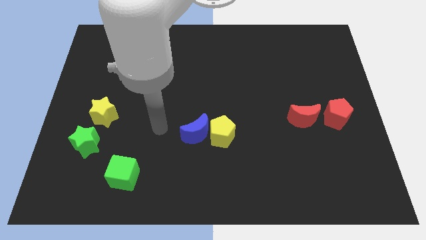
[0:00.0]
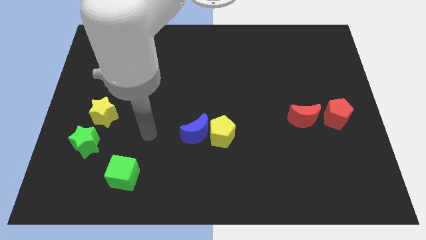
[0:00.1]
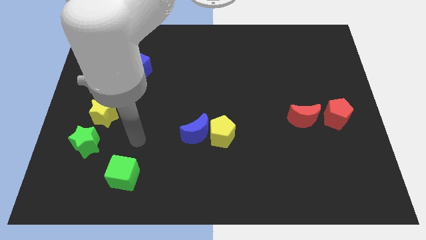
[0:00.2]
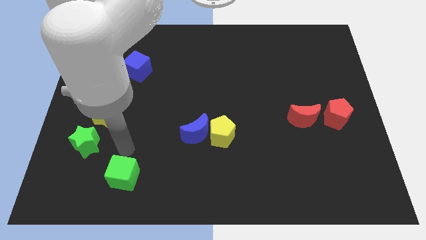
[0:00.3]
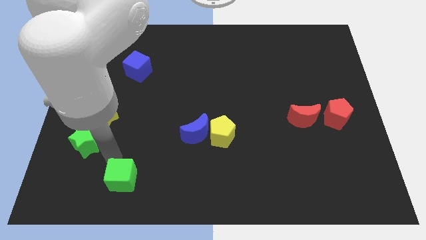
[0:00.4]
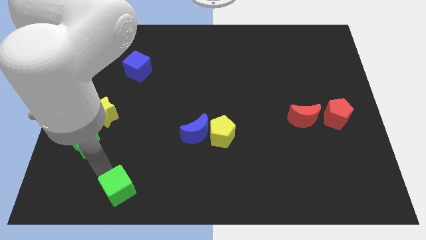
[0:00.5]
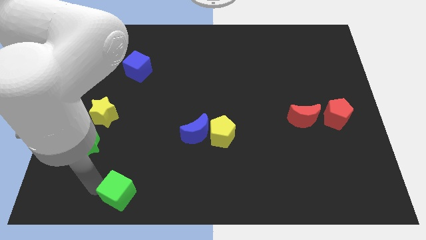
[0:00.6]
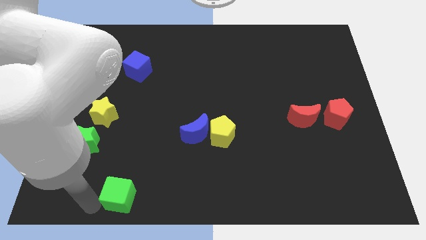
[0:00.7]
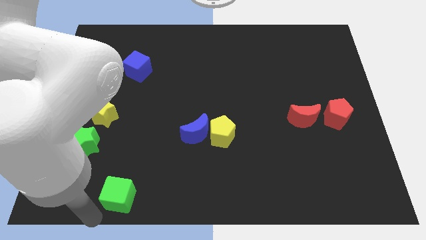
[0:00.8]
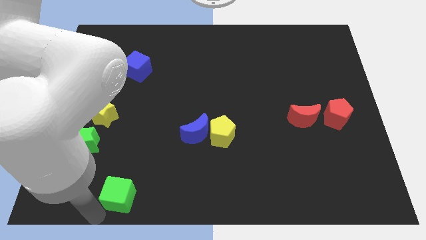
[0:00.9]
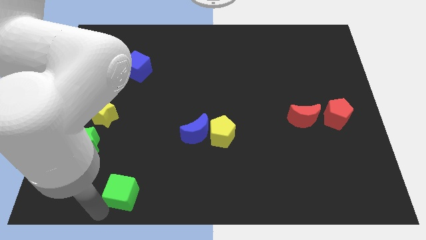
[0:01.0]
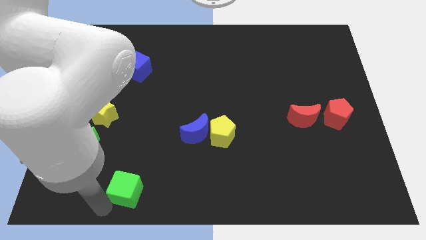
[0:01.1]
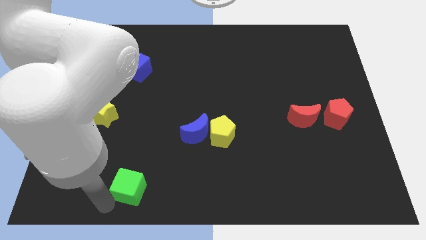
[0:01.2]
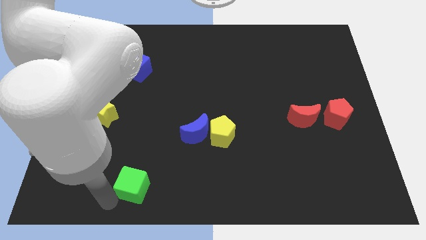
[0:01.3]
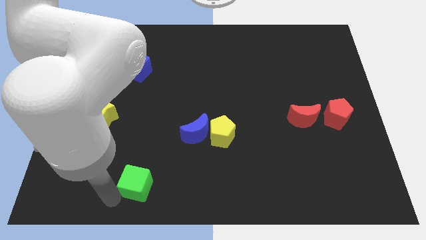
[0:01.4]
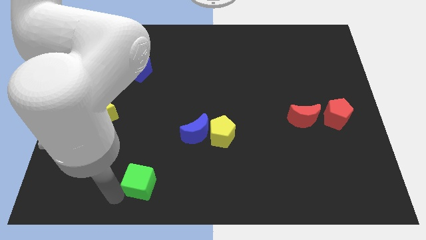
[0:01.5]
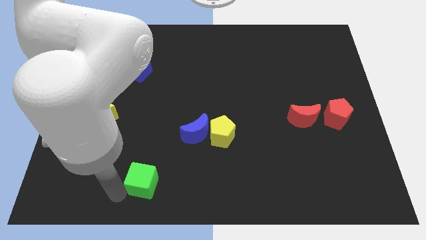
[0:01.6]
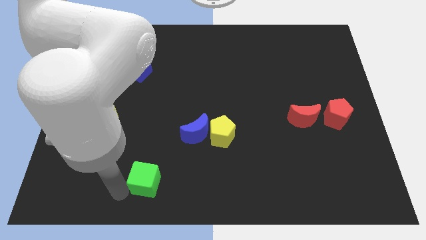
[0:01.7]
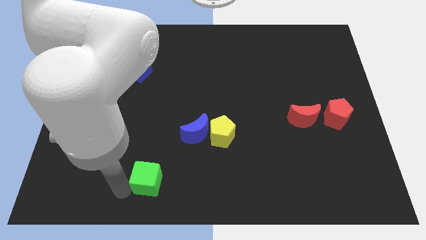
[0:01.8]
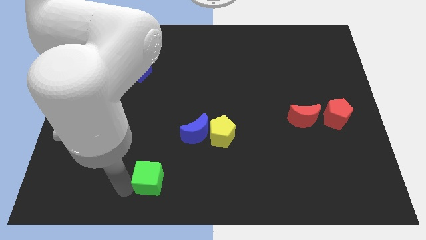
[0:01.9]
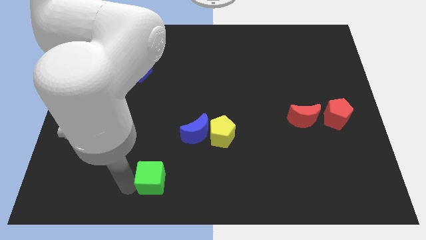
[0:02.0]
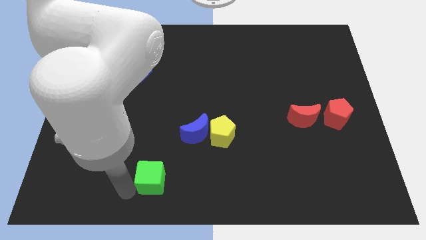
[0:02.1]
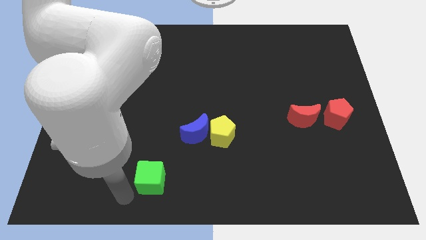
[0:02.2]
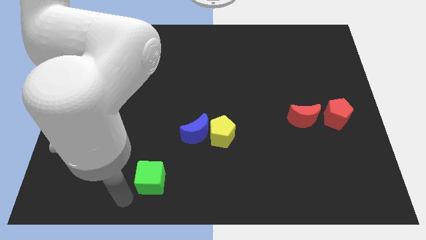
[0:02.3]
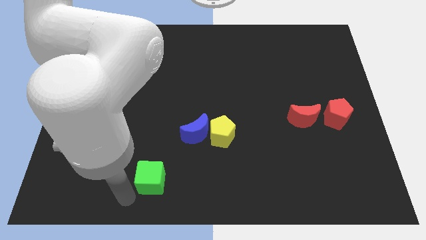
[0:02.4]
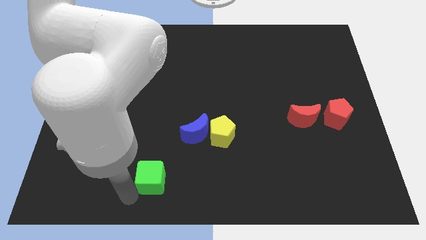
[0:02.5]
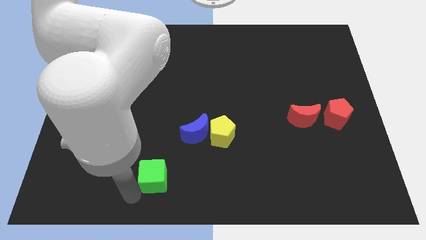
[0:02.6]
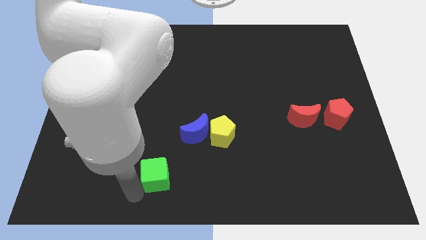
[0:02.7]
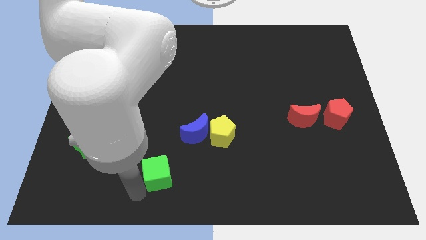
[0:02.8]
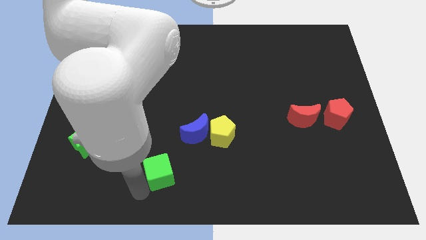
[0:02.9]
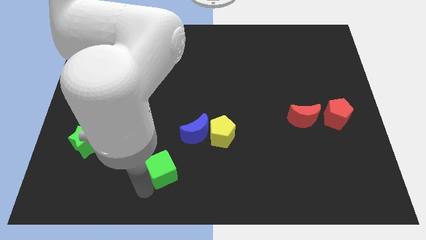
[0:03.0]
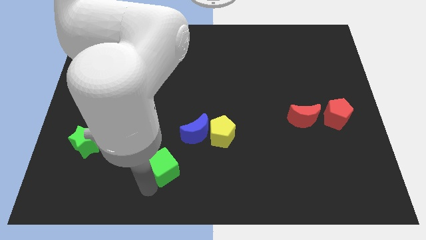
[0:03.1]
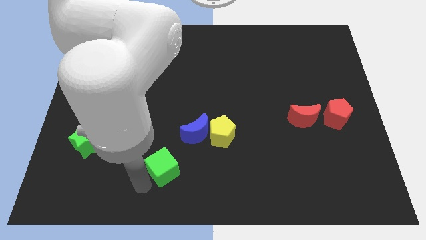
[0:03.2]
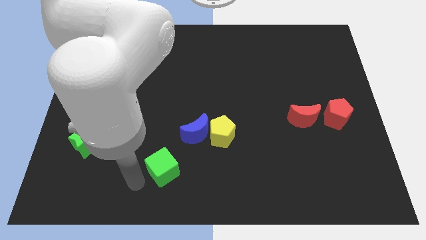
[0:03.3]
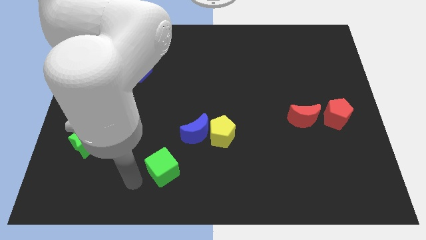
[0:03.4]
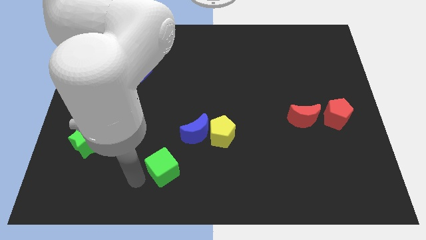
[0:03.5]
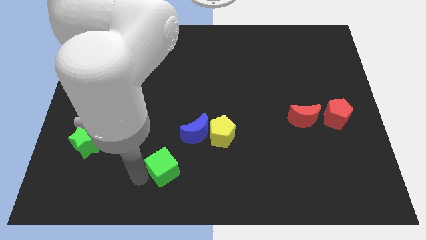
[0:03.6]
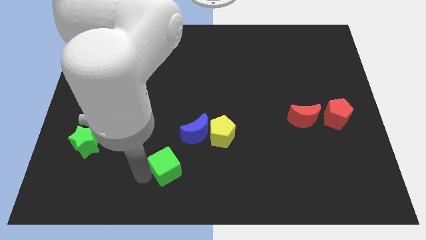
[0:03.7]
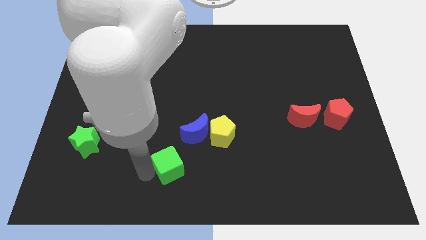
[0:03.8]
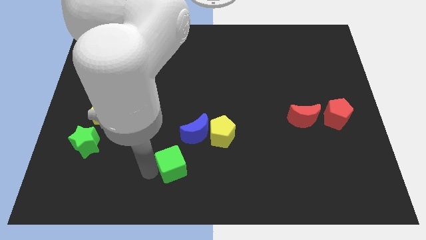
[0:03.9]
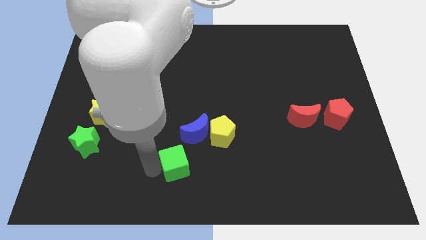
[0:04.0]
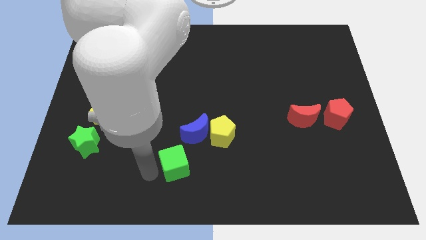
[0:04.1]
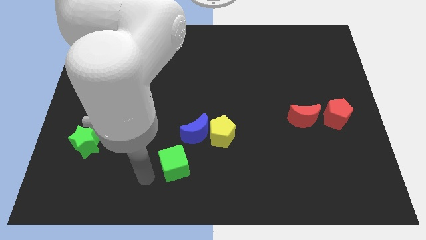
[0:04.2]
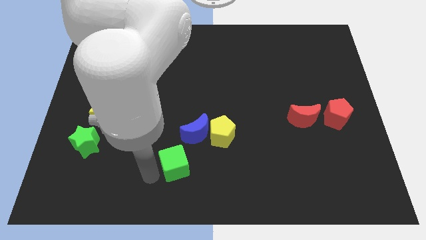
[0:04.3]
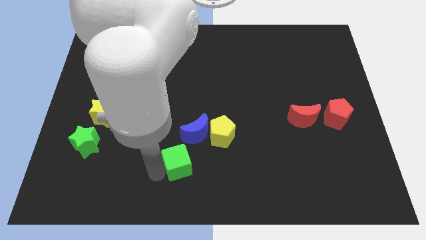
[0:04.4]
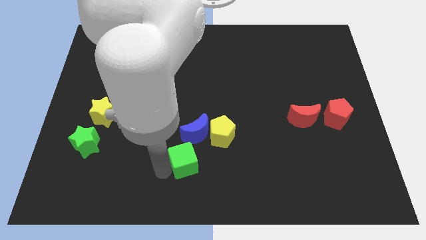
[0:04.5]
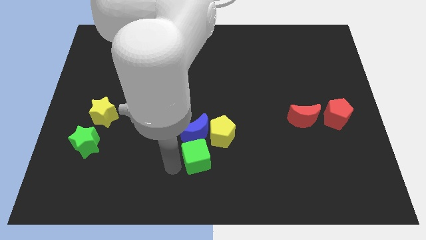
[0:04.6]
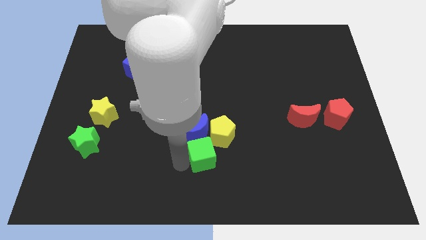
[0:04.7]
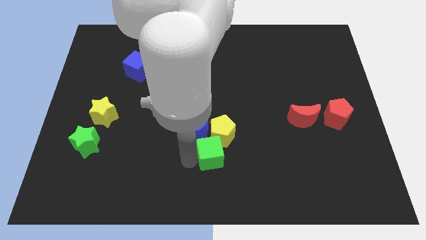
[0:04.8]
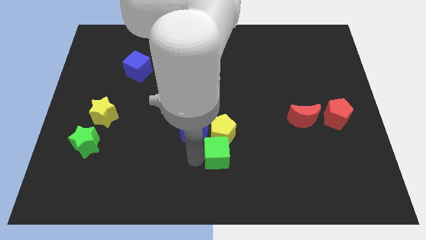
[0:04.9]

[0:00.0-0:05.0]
move the green cube to the bottom right of the yellow pentagon

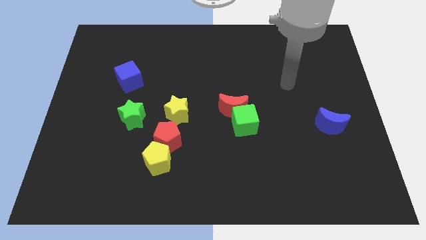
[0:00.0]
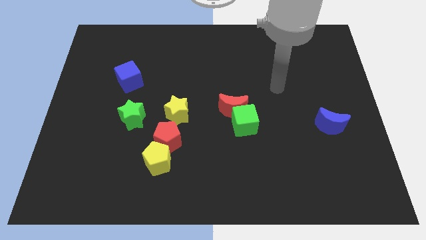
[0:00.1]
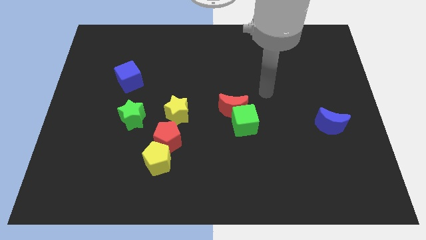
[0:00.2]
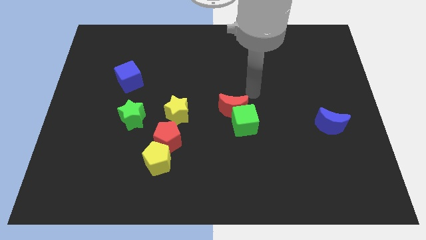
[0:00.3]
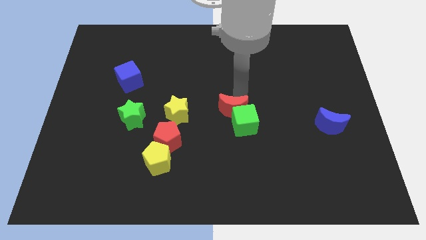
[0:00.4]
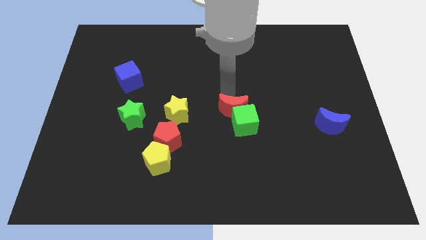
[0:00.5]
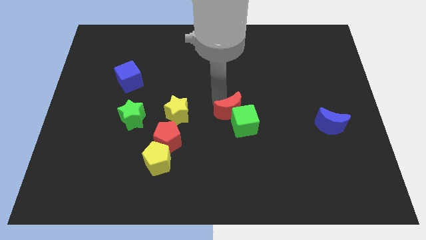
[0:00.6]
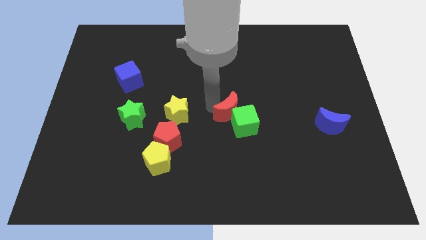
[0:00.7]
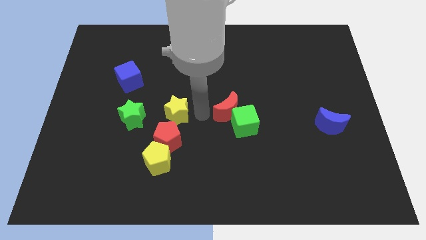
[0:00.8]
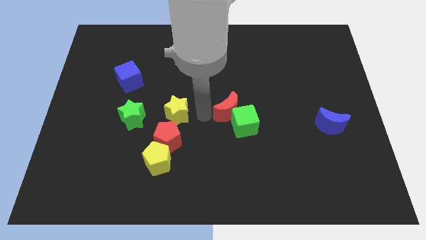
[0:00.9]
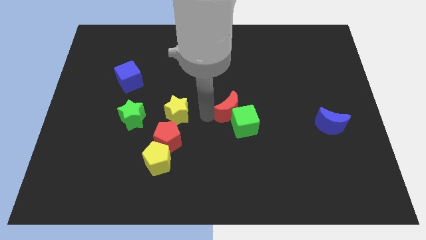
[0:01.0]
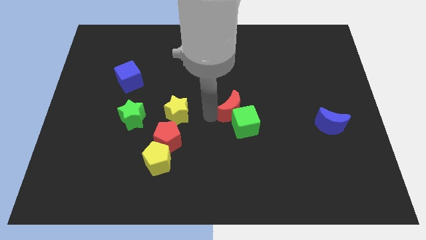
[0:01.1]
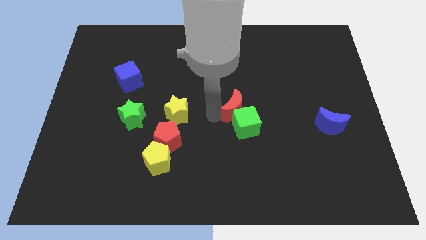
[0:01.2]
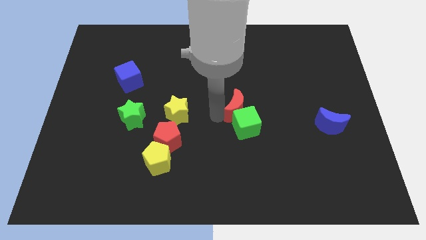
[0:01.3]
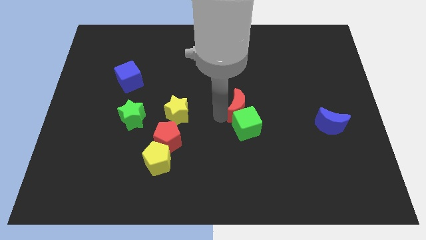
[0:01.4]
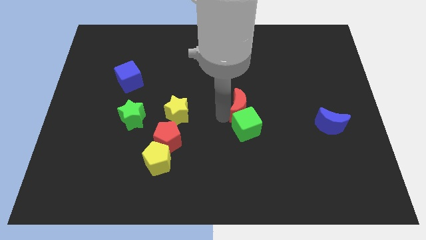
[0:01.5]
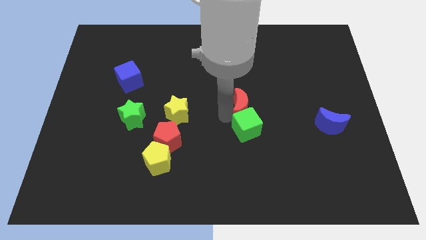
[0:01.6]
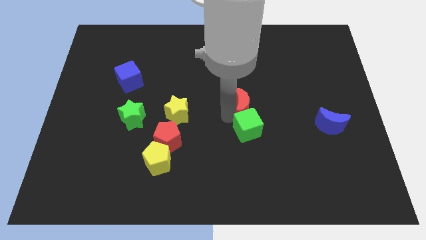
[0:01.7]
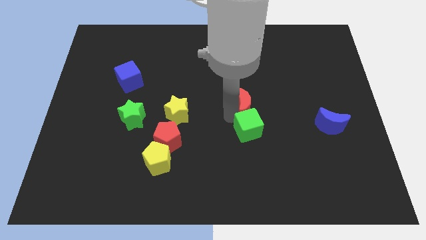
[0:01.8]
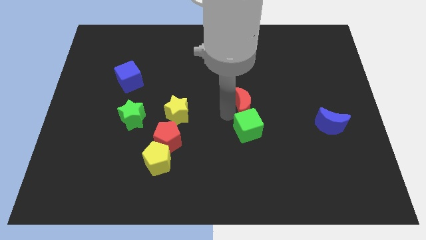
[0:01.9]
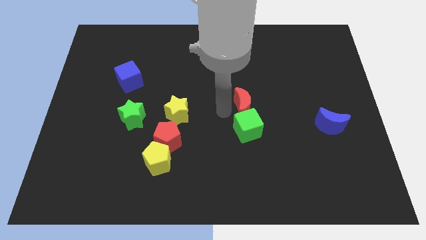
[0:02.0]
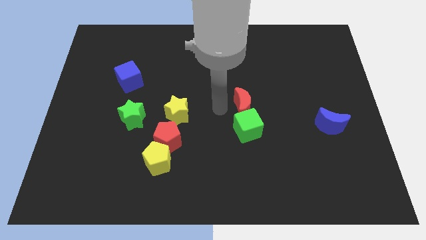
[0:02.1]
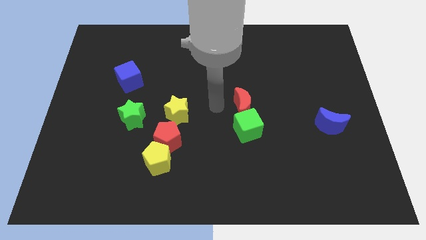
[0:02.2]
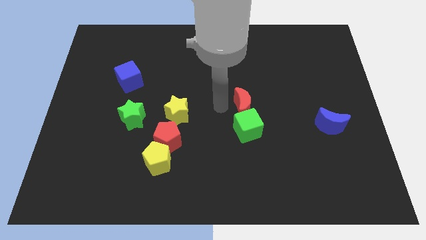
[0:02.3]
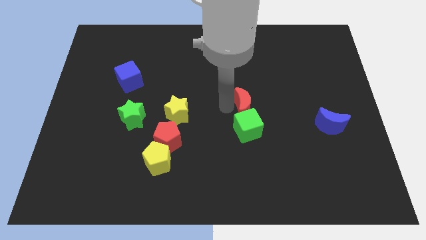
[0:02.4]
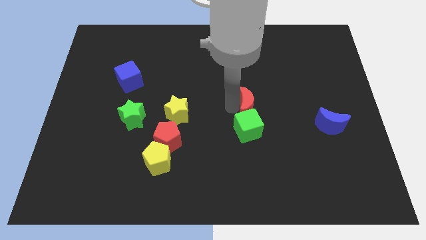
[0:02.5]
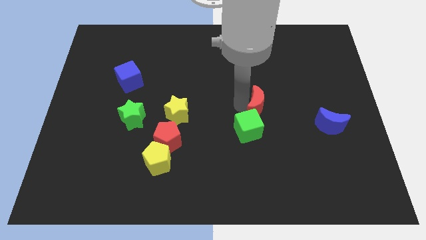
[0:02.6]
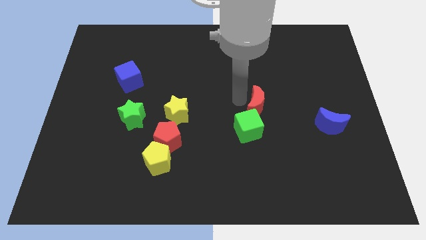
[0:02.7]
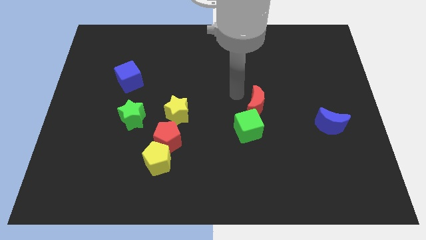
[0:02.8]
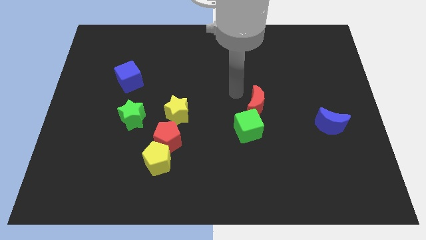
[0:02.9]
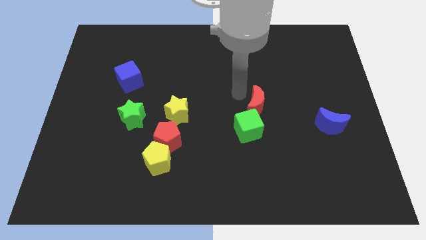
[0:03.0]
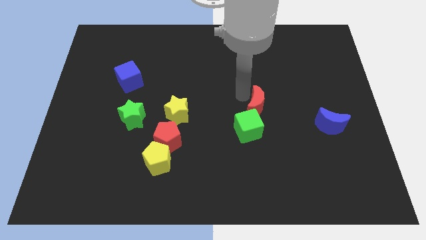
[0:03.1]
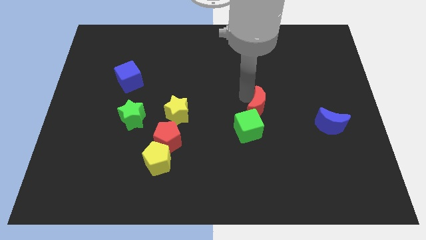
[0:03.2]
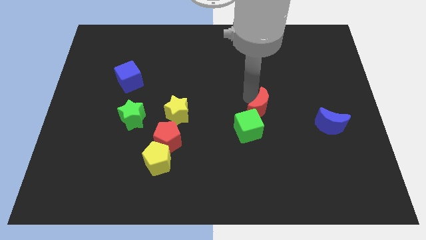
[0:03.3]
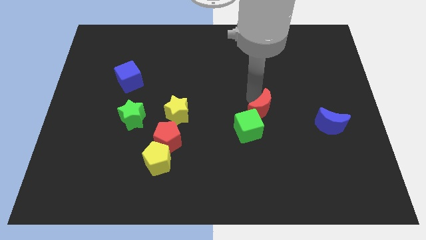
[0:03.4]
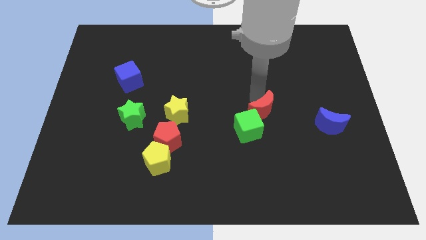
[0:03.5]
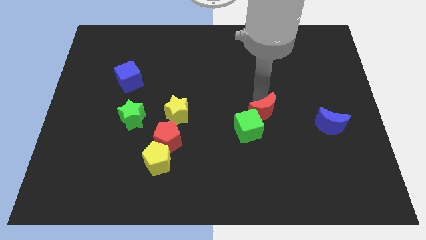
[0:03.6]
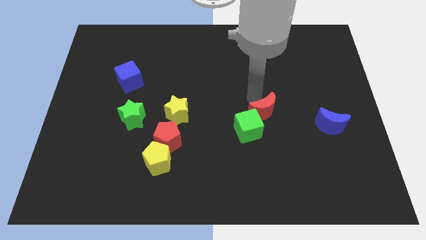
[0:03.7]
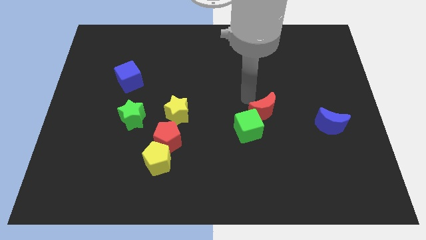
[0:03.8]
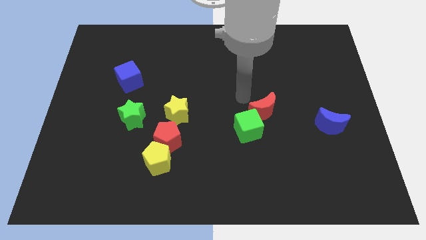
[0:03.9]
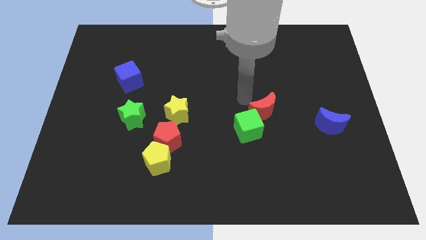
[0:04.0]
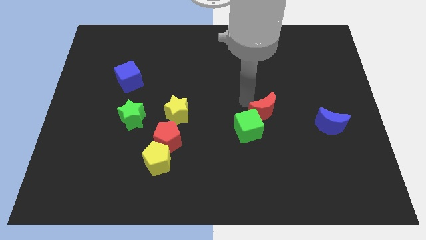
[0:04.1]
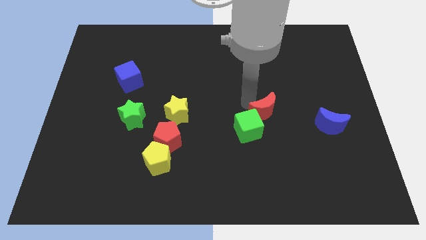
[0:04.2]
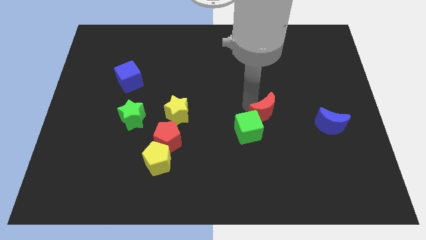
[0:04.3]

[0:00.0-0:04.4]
move the red moon left of the blue moon
